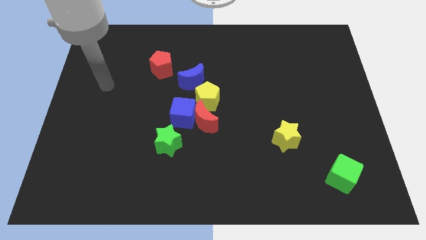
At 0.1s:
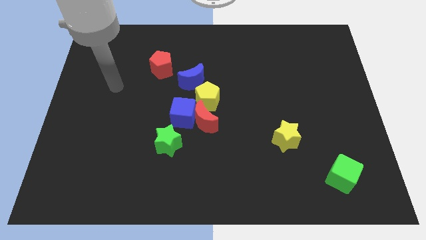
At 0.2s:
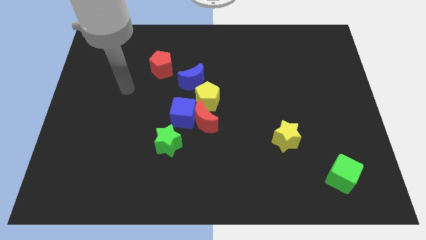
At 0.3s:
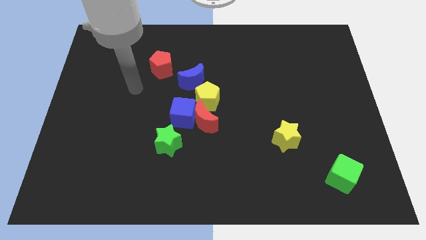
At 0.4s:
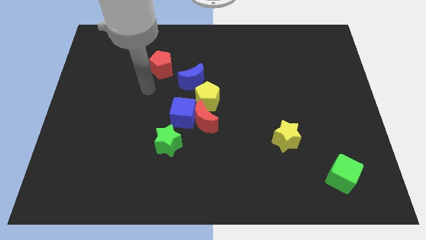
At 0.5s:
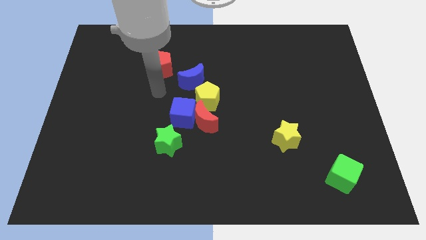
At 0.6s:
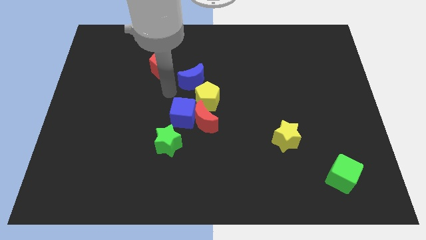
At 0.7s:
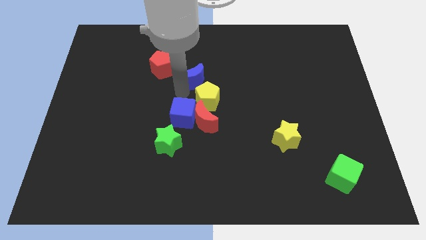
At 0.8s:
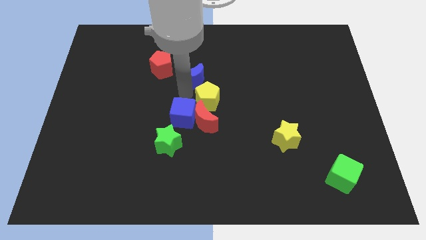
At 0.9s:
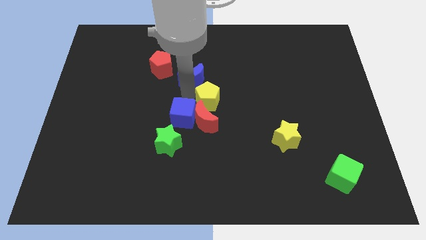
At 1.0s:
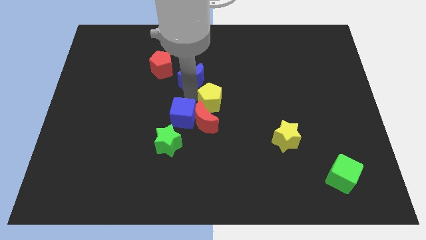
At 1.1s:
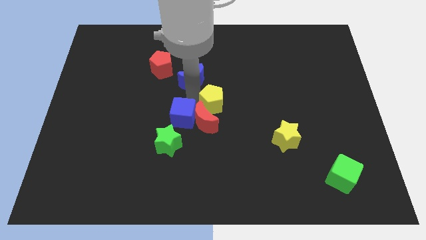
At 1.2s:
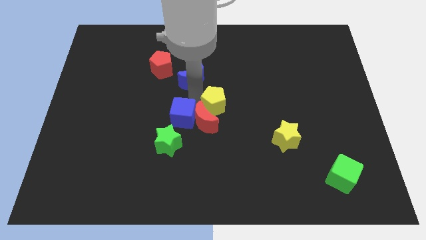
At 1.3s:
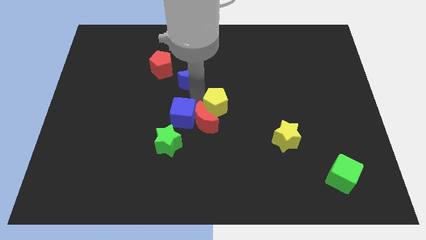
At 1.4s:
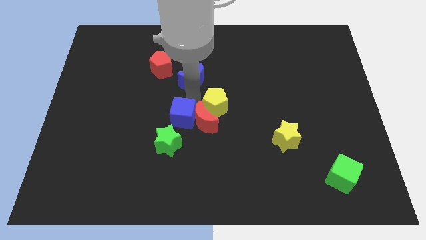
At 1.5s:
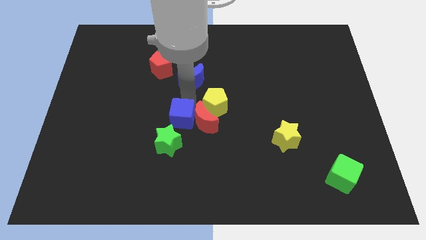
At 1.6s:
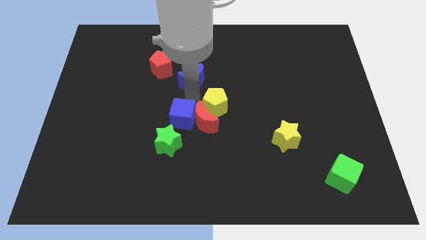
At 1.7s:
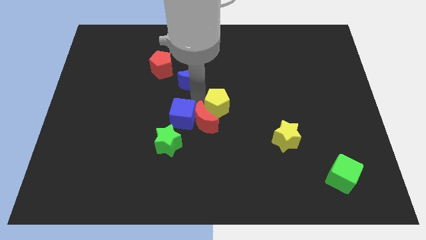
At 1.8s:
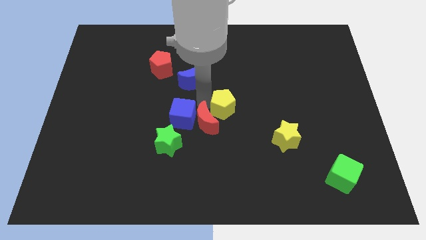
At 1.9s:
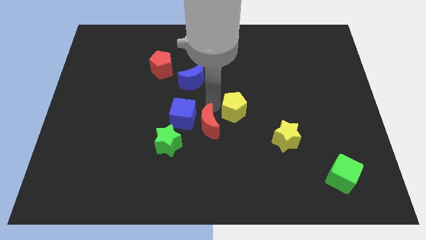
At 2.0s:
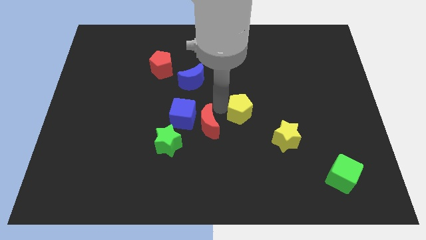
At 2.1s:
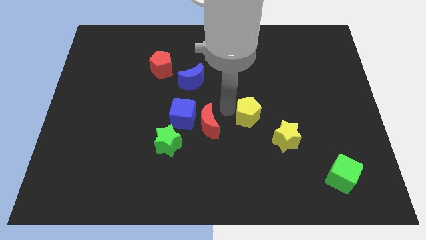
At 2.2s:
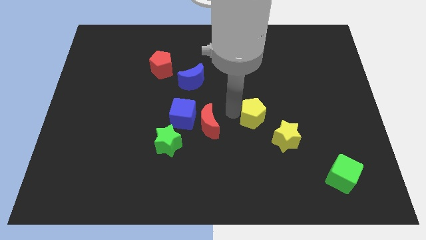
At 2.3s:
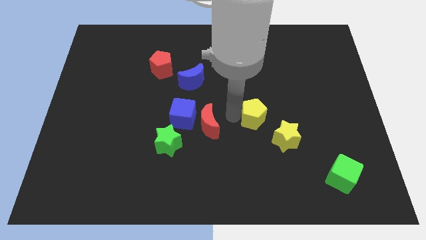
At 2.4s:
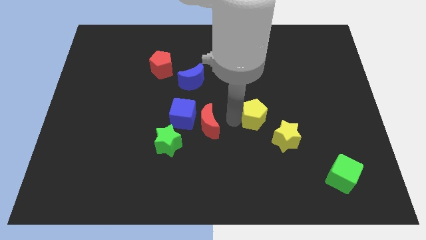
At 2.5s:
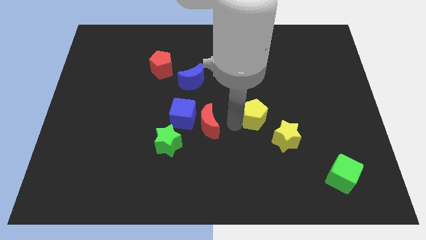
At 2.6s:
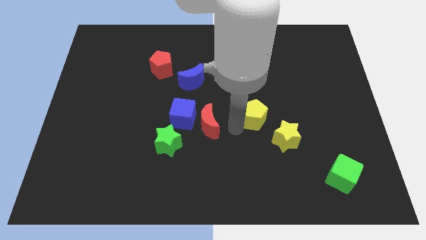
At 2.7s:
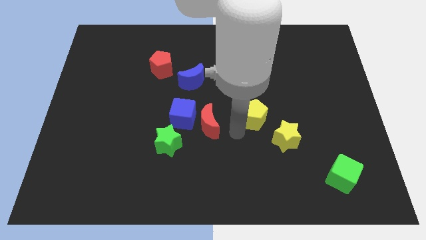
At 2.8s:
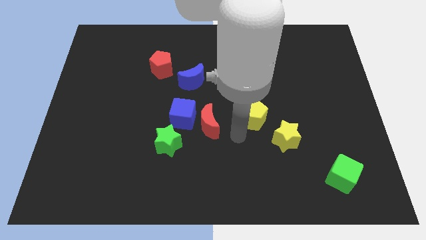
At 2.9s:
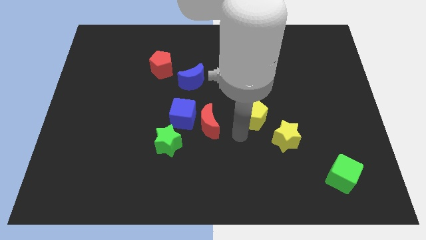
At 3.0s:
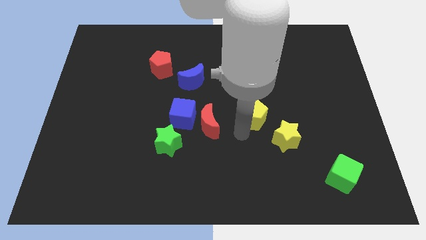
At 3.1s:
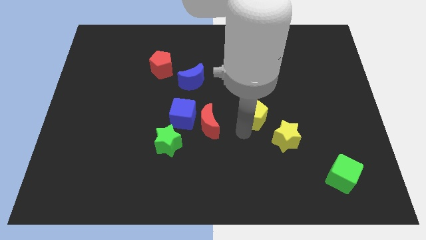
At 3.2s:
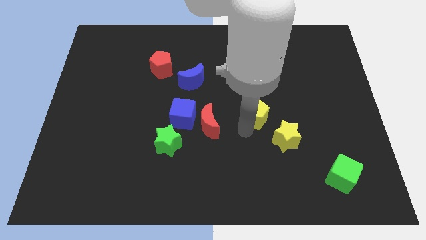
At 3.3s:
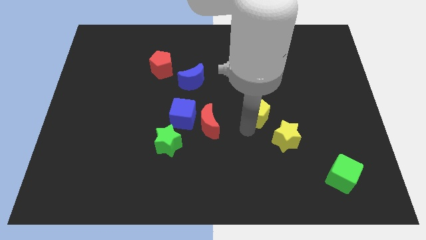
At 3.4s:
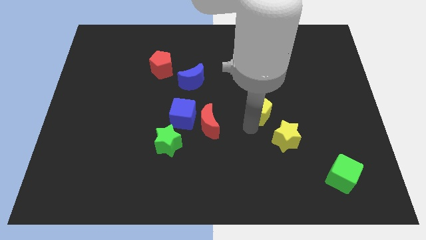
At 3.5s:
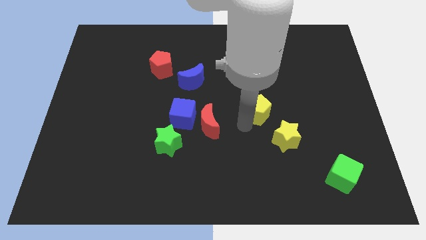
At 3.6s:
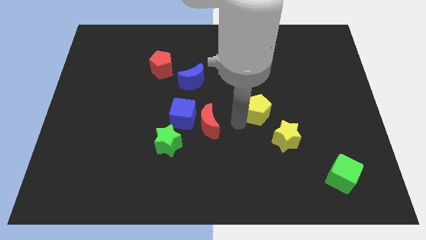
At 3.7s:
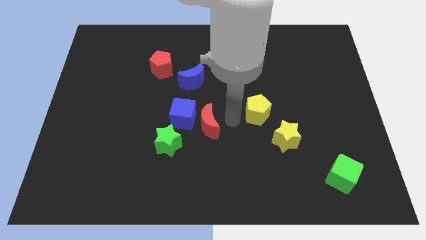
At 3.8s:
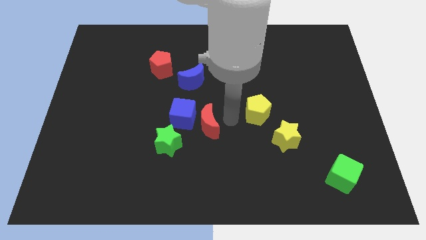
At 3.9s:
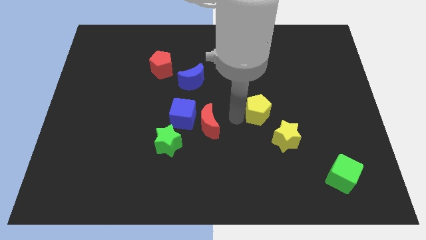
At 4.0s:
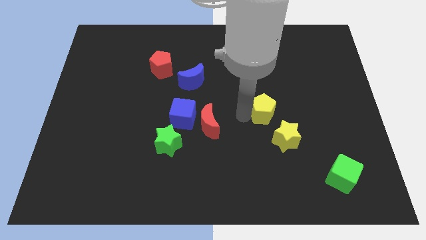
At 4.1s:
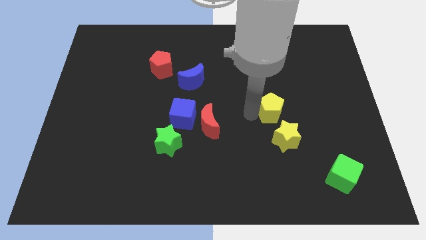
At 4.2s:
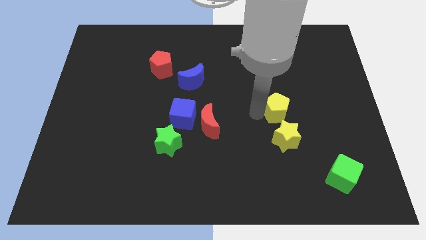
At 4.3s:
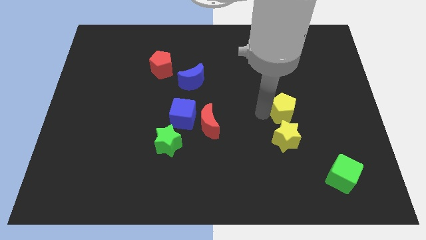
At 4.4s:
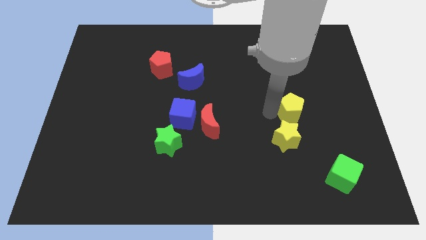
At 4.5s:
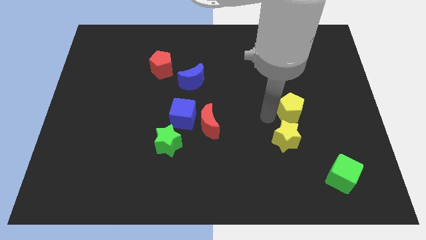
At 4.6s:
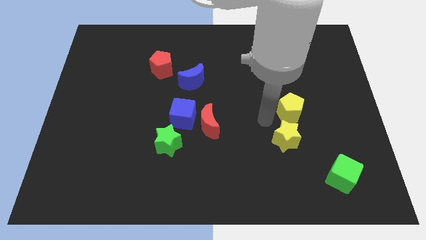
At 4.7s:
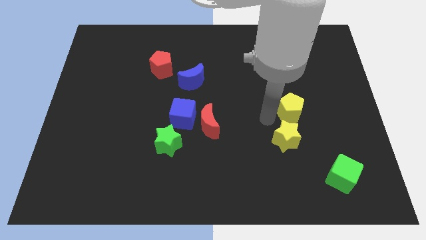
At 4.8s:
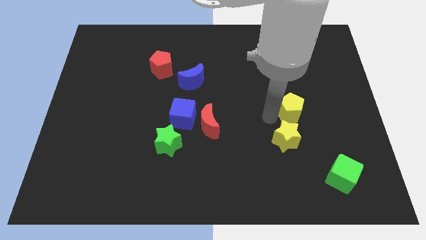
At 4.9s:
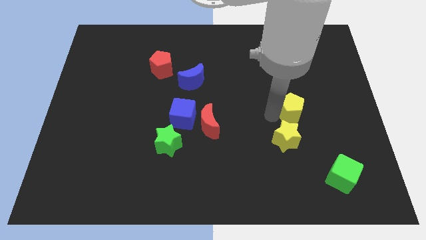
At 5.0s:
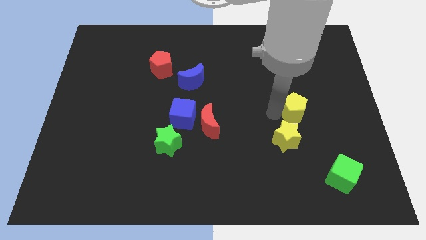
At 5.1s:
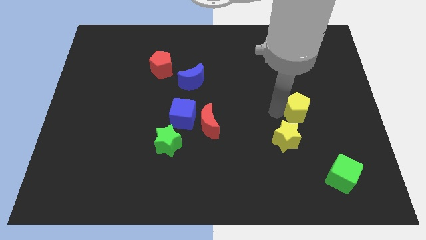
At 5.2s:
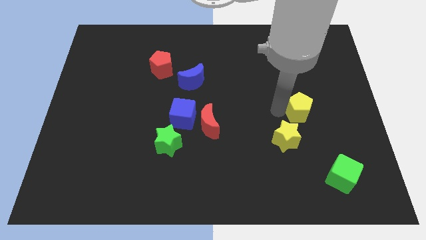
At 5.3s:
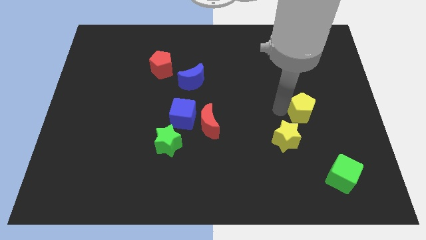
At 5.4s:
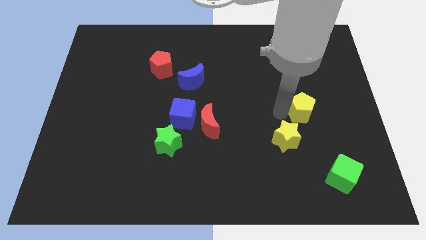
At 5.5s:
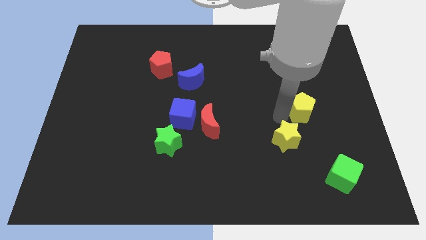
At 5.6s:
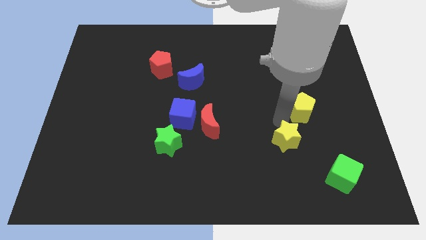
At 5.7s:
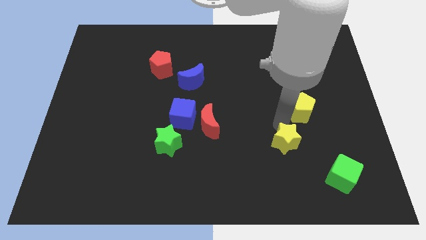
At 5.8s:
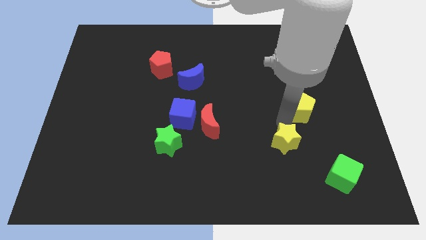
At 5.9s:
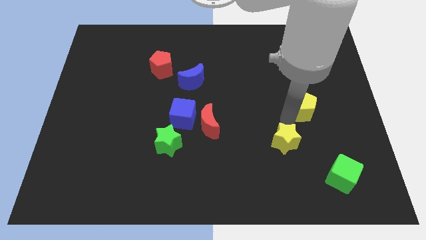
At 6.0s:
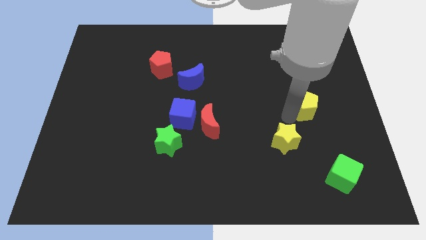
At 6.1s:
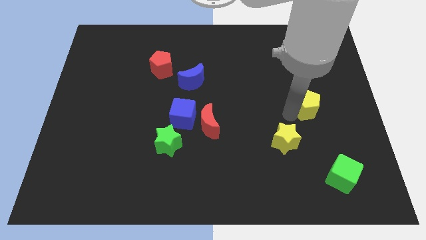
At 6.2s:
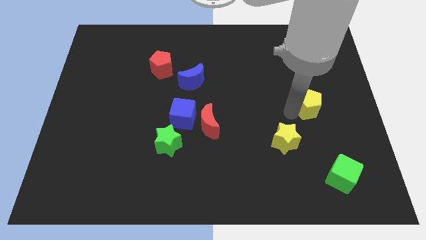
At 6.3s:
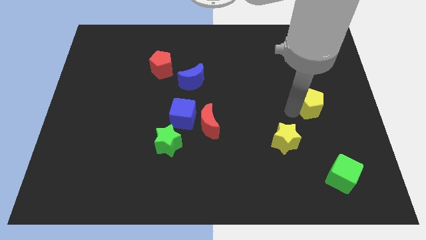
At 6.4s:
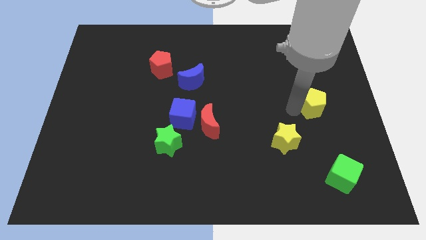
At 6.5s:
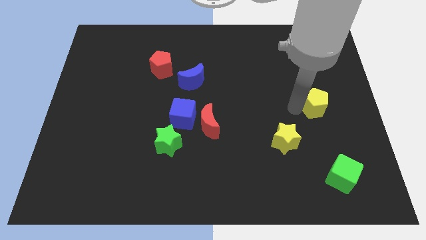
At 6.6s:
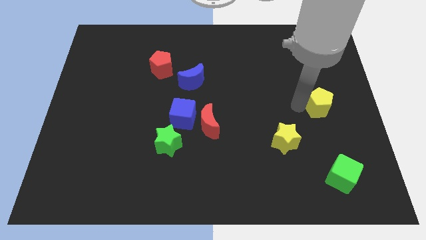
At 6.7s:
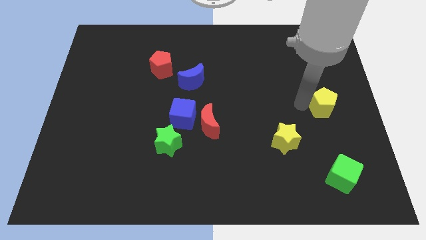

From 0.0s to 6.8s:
push the yellow pentagon to the center right

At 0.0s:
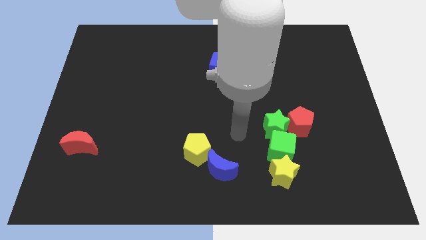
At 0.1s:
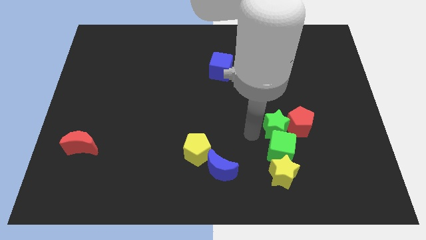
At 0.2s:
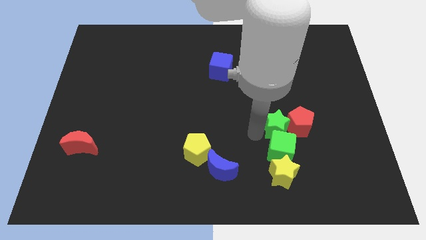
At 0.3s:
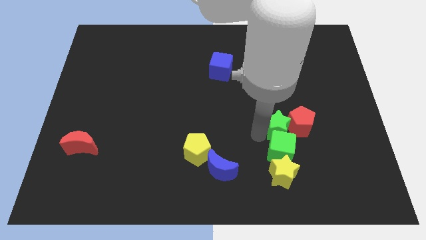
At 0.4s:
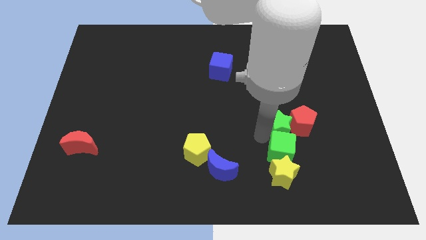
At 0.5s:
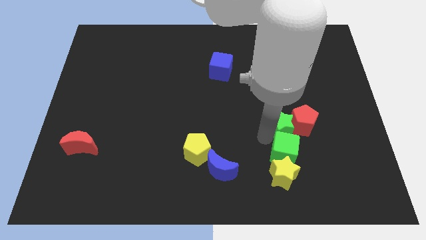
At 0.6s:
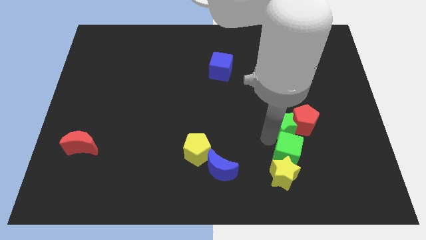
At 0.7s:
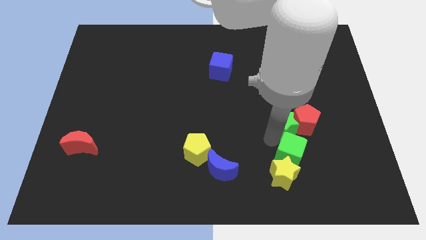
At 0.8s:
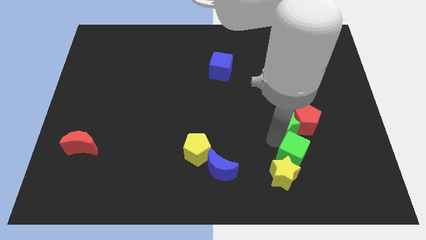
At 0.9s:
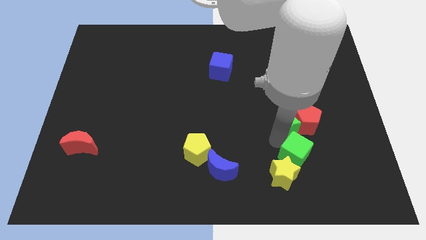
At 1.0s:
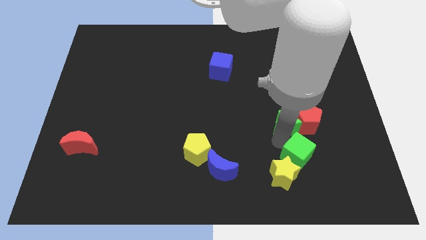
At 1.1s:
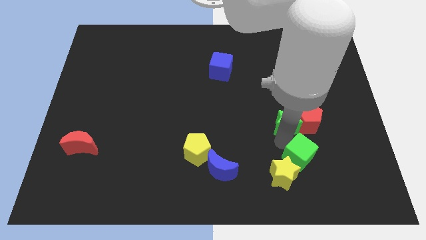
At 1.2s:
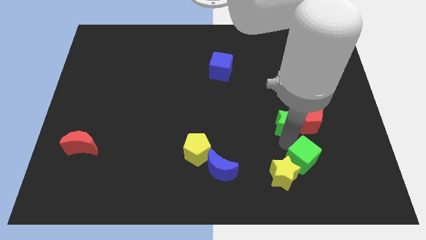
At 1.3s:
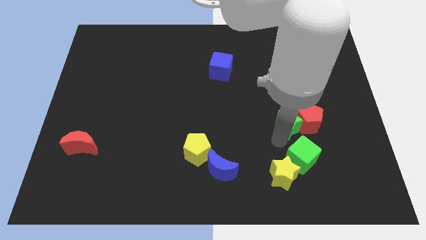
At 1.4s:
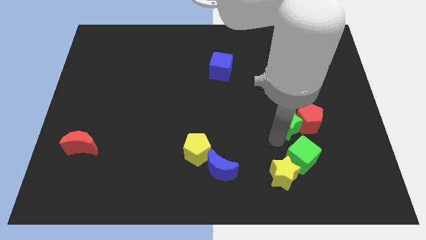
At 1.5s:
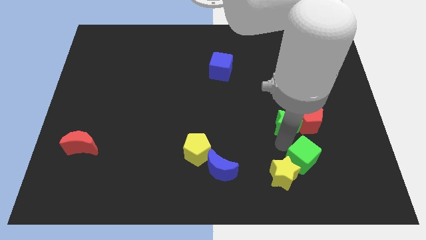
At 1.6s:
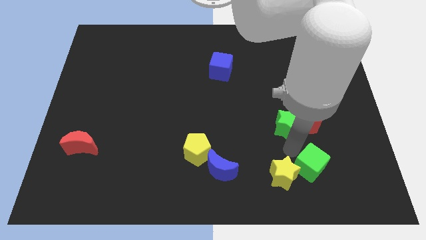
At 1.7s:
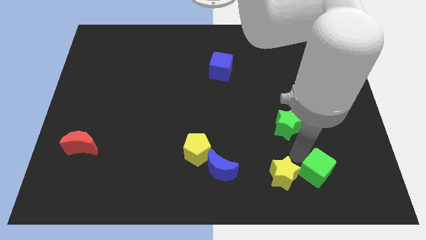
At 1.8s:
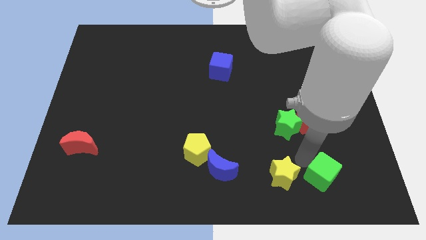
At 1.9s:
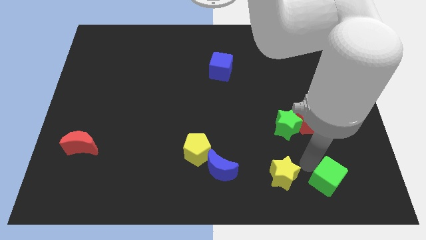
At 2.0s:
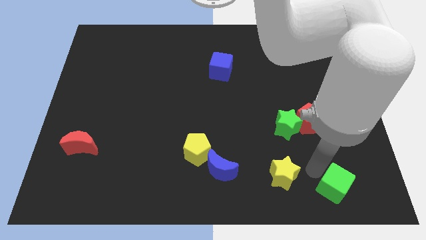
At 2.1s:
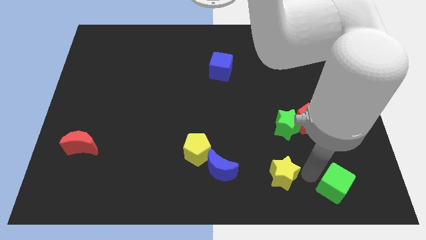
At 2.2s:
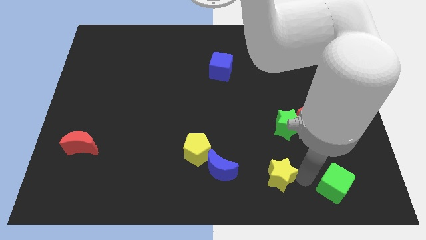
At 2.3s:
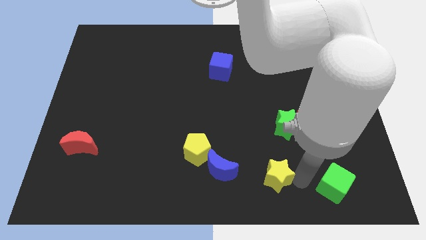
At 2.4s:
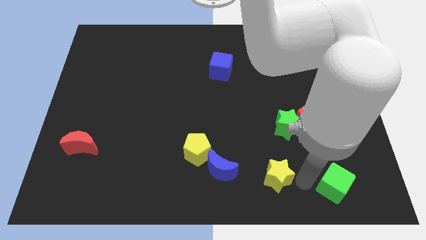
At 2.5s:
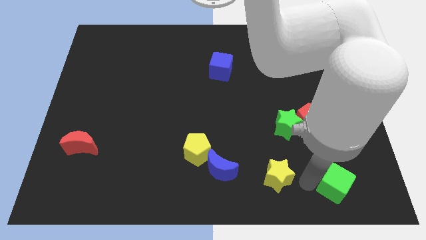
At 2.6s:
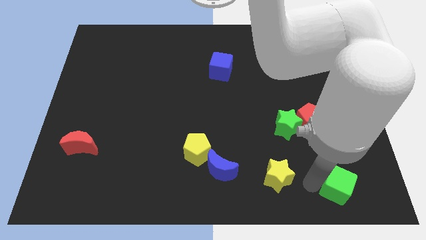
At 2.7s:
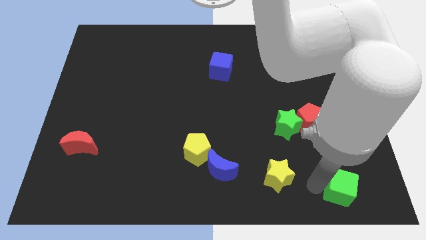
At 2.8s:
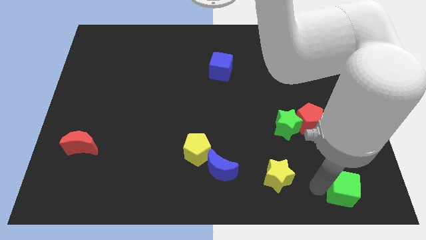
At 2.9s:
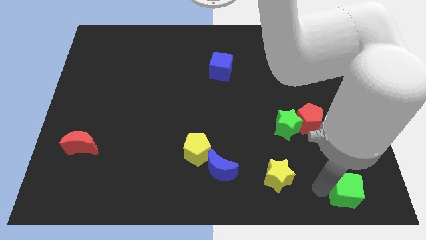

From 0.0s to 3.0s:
move the green cube to the bottom right corner
